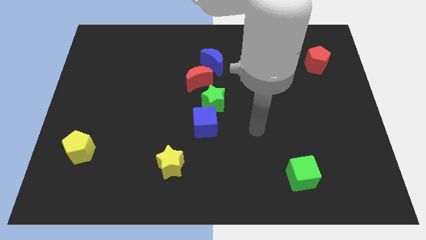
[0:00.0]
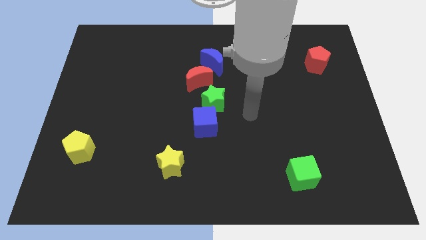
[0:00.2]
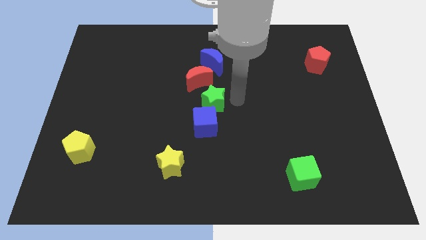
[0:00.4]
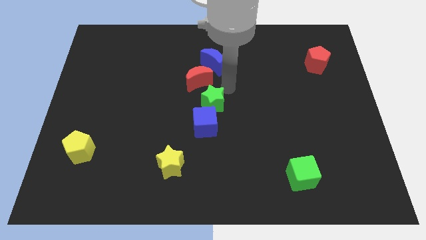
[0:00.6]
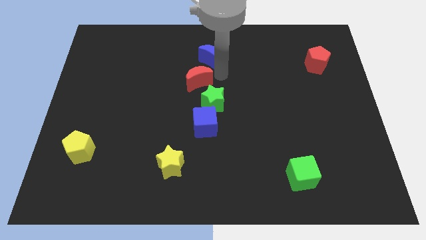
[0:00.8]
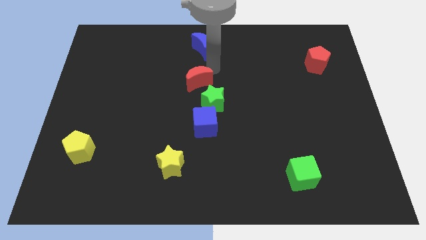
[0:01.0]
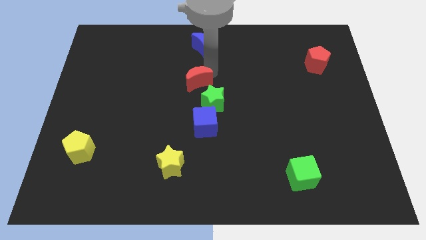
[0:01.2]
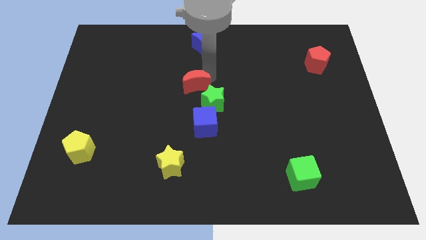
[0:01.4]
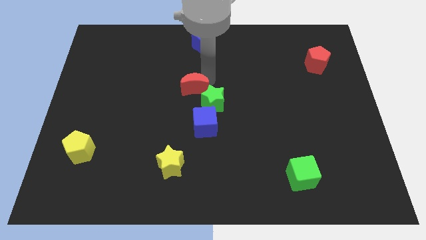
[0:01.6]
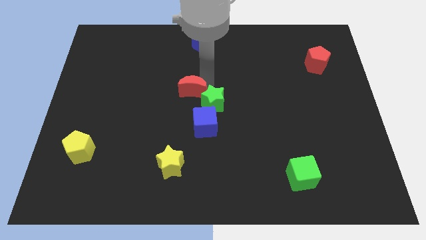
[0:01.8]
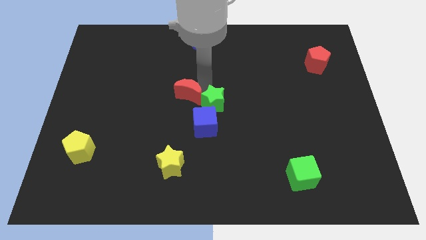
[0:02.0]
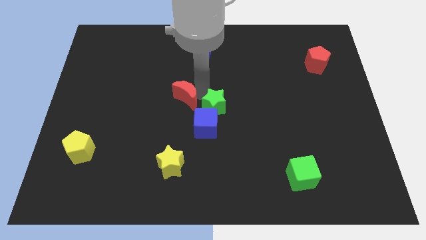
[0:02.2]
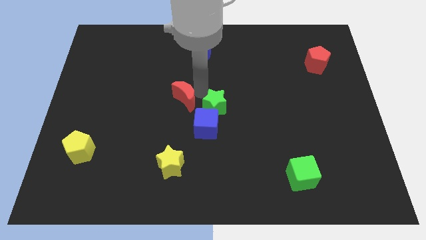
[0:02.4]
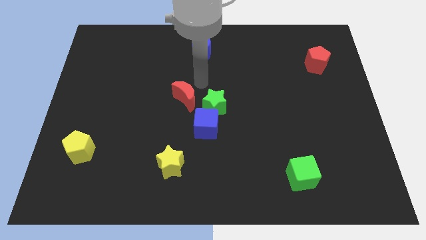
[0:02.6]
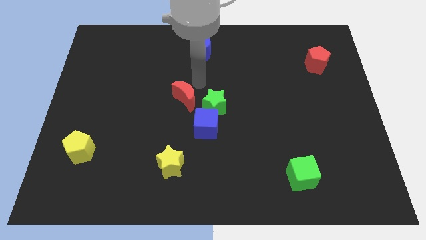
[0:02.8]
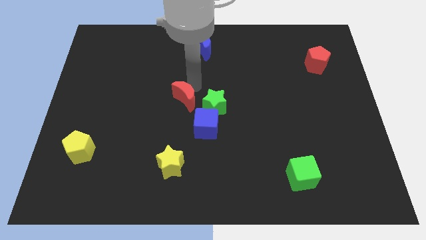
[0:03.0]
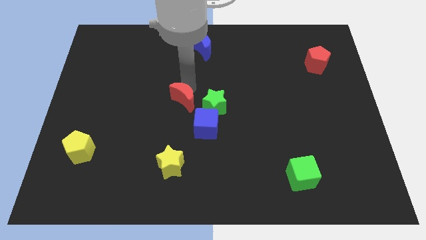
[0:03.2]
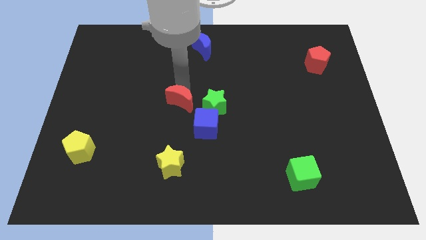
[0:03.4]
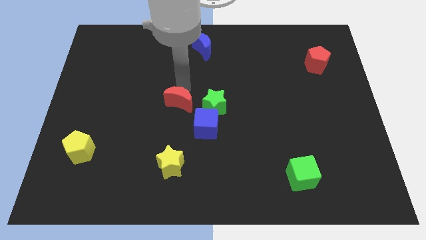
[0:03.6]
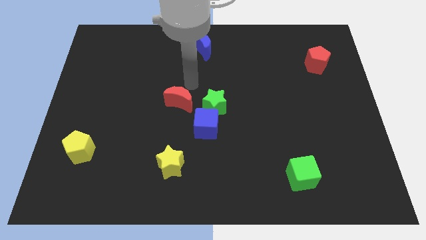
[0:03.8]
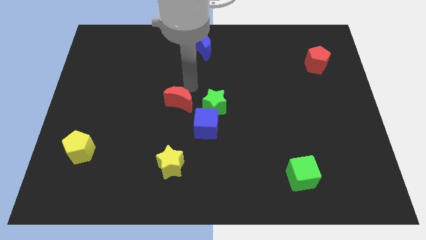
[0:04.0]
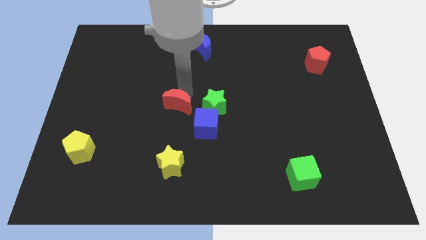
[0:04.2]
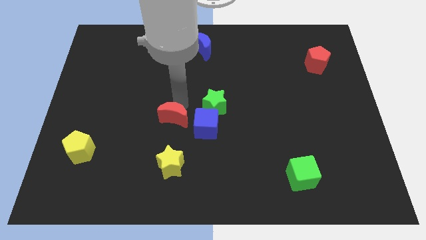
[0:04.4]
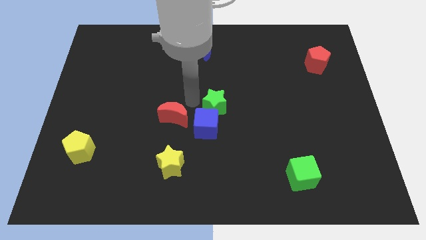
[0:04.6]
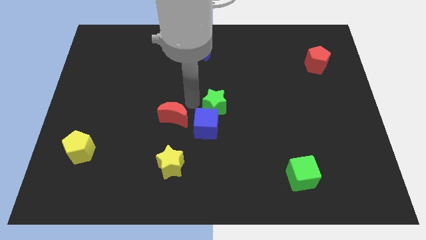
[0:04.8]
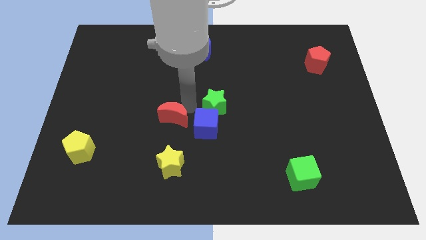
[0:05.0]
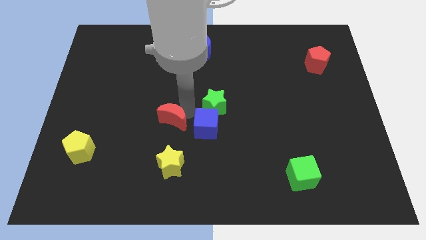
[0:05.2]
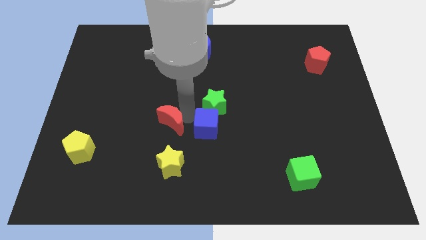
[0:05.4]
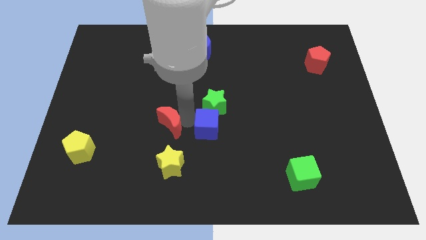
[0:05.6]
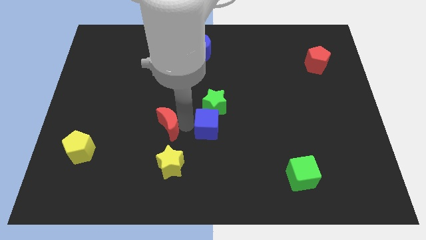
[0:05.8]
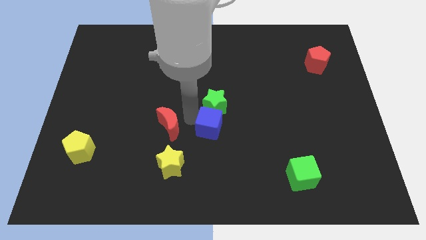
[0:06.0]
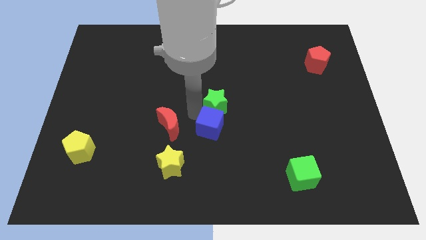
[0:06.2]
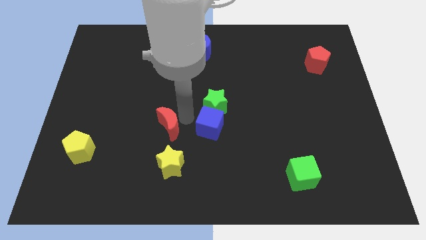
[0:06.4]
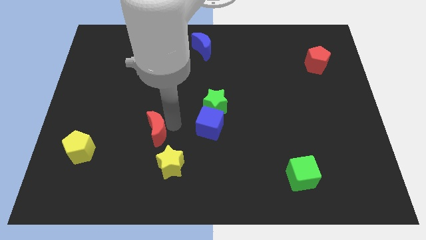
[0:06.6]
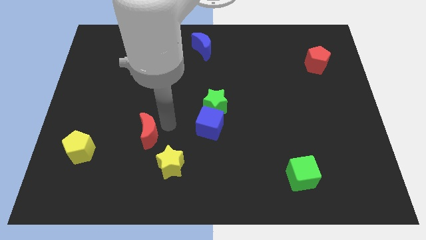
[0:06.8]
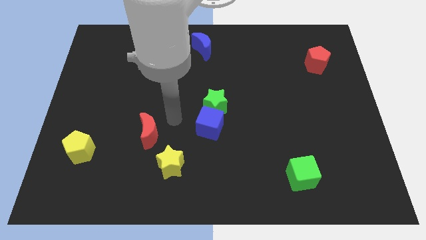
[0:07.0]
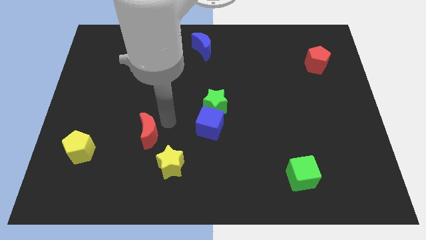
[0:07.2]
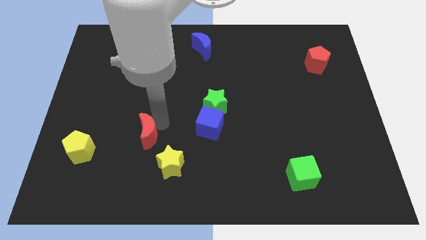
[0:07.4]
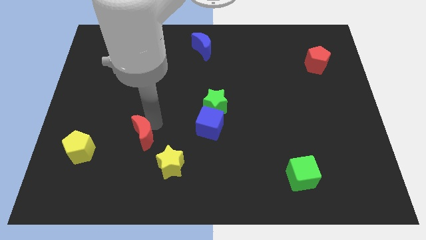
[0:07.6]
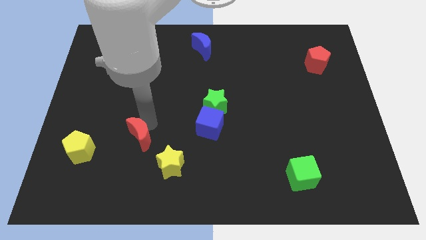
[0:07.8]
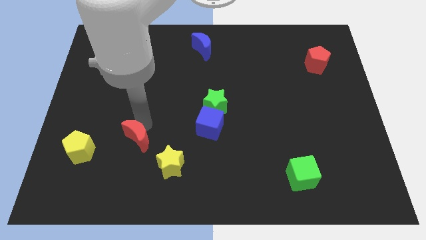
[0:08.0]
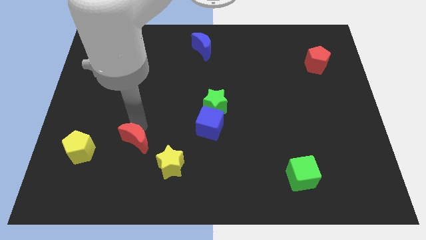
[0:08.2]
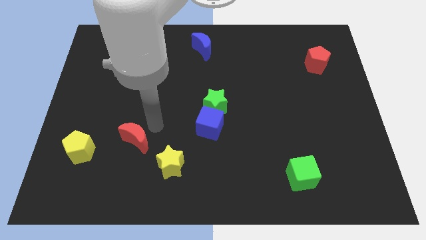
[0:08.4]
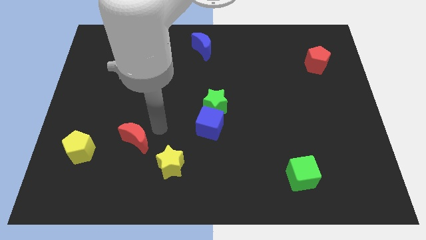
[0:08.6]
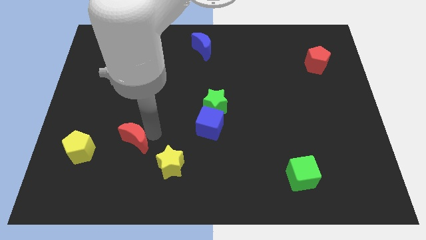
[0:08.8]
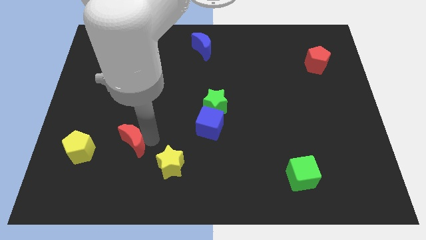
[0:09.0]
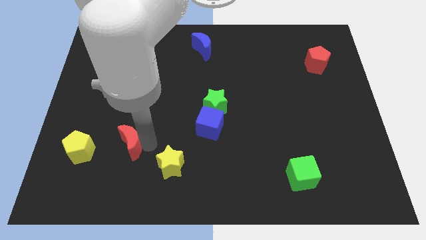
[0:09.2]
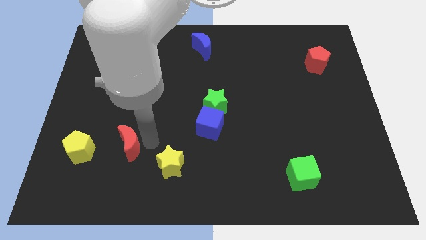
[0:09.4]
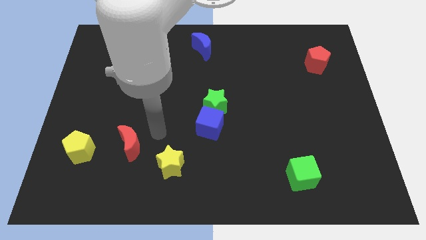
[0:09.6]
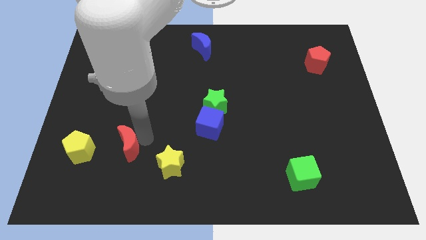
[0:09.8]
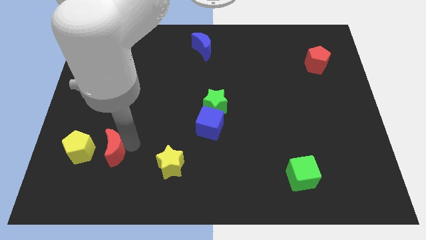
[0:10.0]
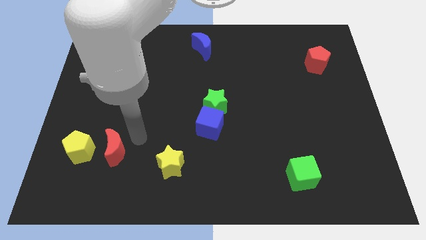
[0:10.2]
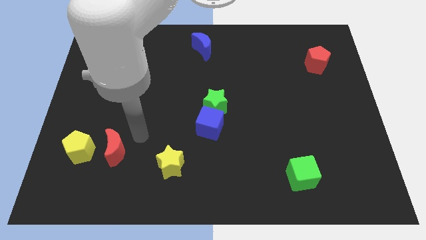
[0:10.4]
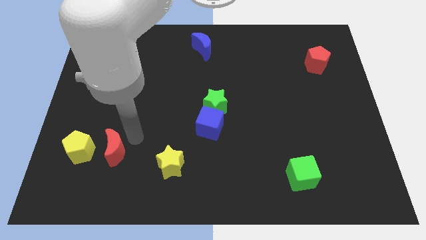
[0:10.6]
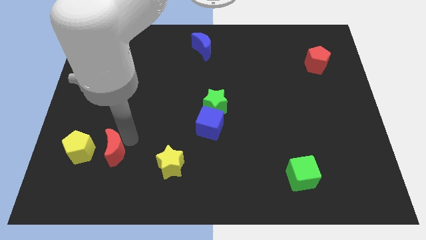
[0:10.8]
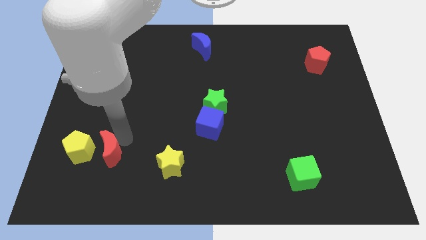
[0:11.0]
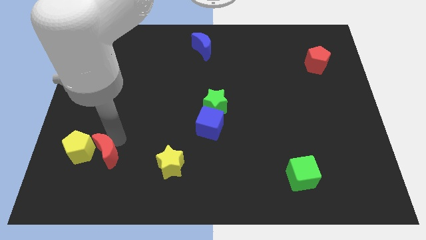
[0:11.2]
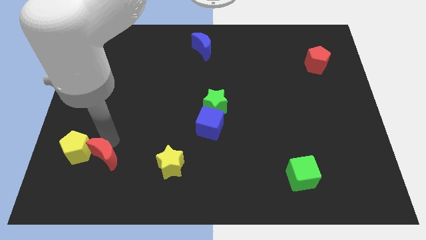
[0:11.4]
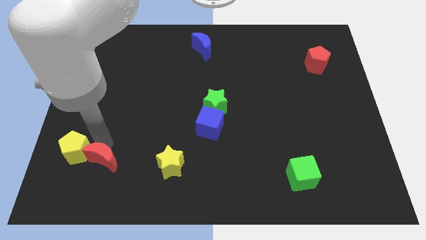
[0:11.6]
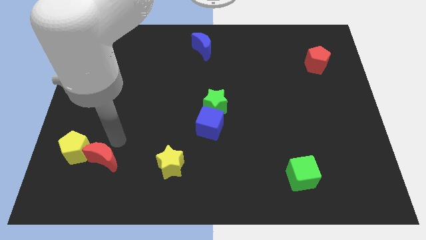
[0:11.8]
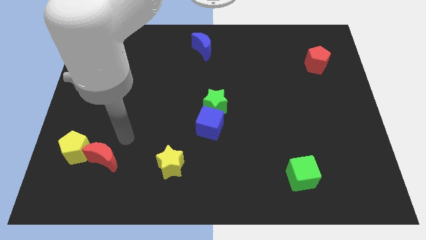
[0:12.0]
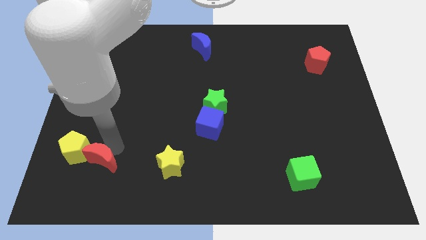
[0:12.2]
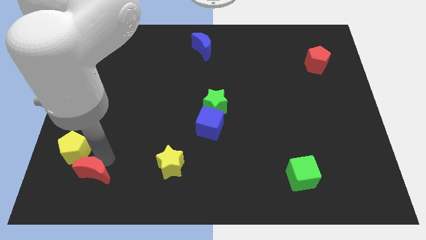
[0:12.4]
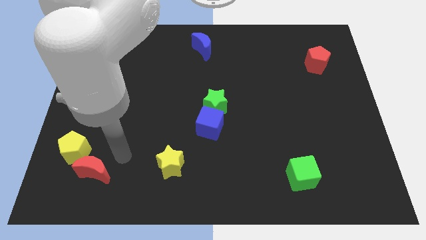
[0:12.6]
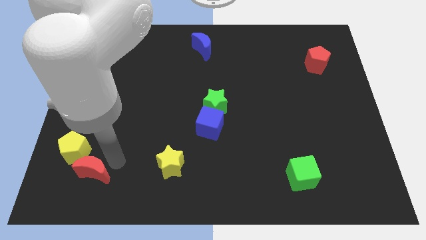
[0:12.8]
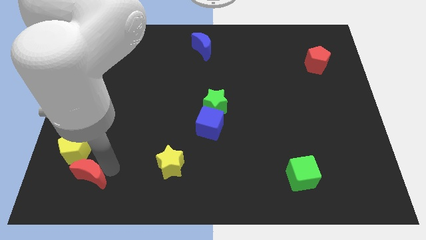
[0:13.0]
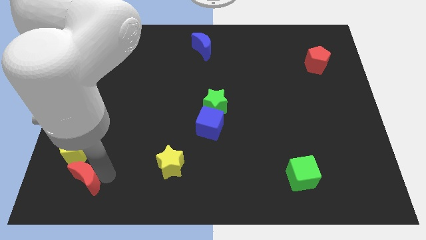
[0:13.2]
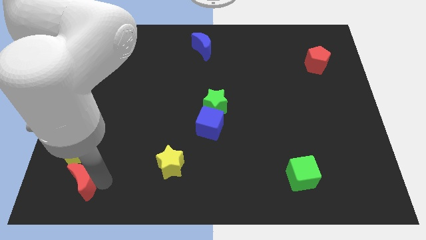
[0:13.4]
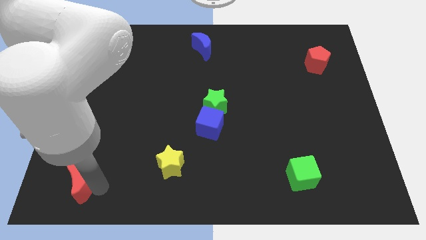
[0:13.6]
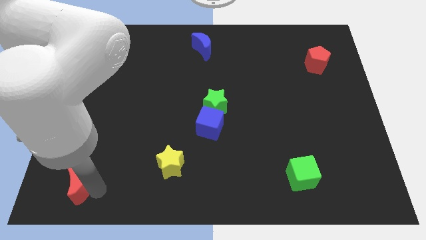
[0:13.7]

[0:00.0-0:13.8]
slide the red moon to the lower left corner

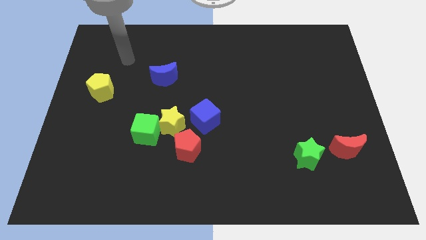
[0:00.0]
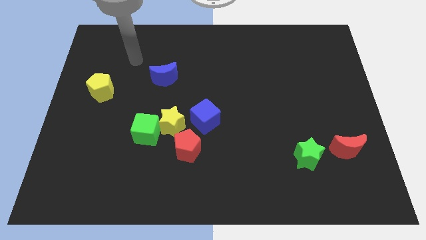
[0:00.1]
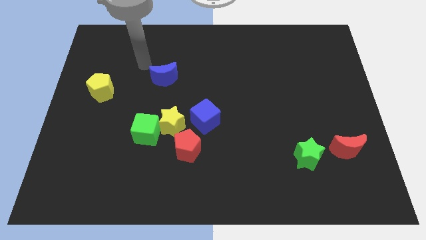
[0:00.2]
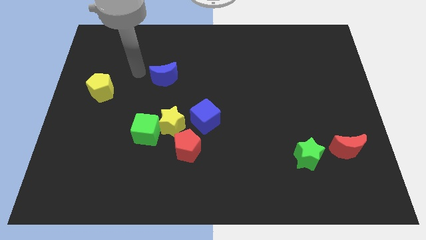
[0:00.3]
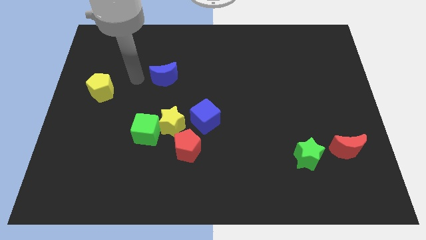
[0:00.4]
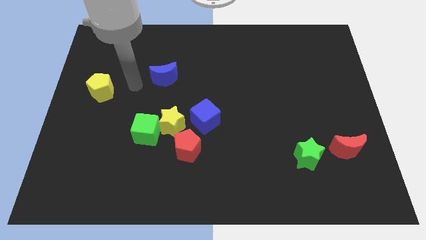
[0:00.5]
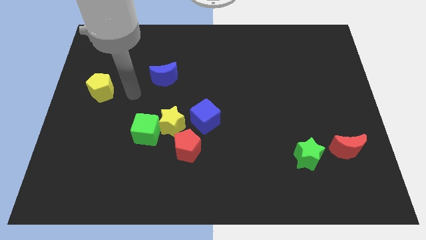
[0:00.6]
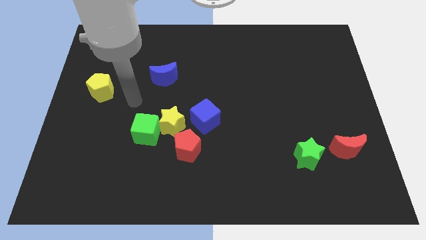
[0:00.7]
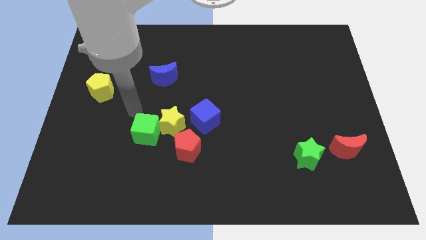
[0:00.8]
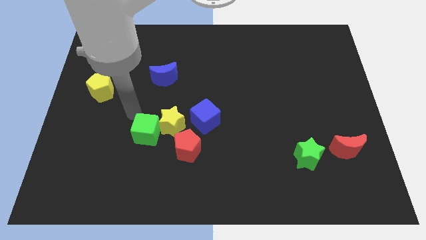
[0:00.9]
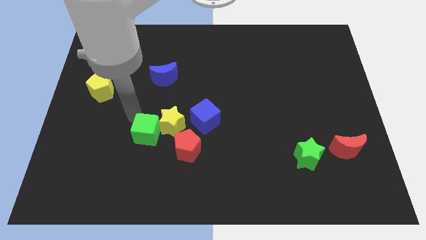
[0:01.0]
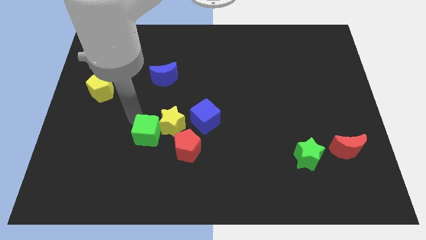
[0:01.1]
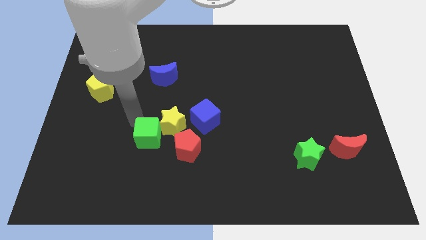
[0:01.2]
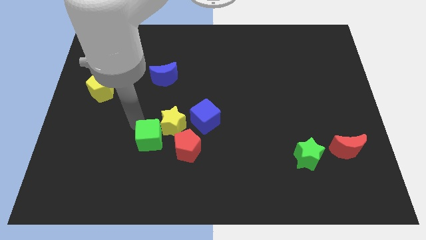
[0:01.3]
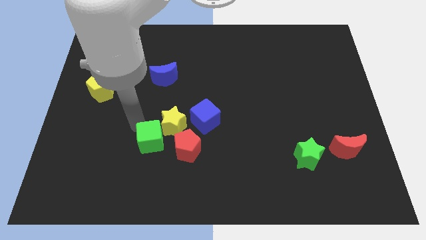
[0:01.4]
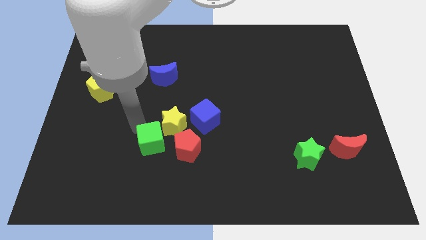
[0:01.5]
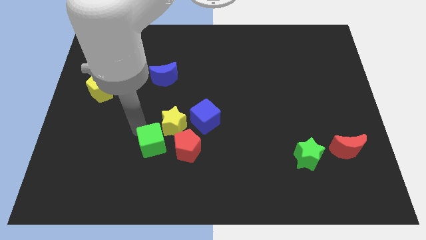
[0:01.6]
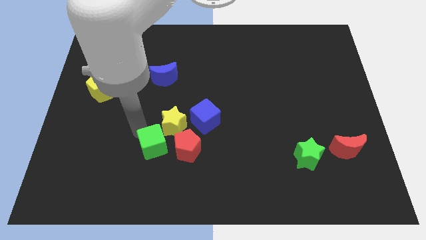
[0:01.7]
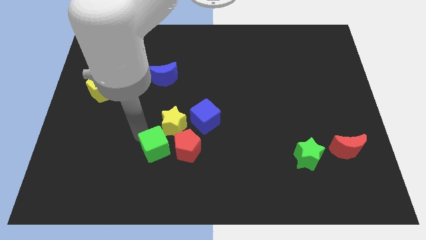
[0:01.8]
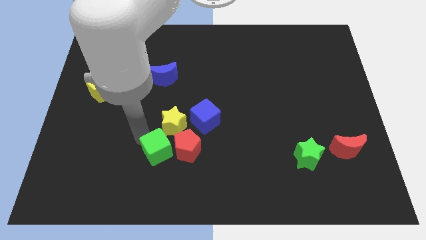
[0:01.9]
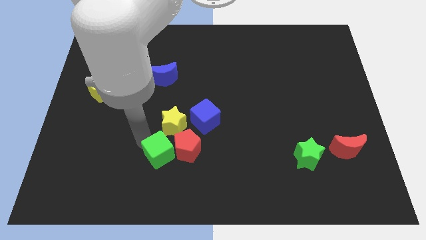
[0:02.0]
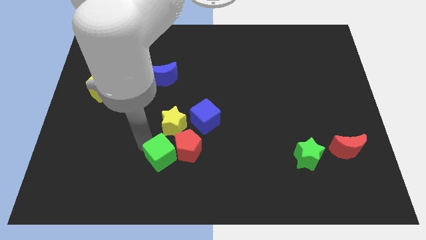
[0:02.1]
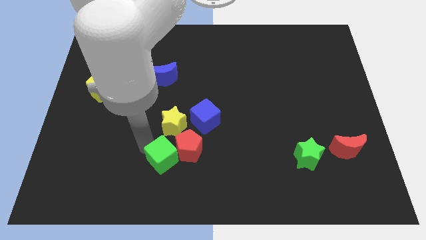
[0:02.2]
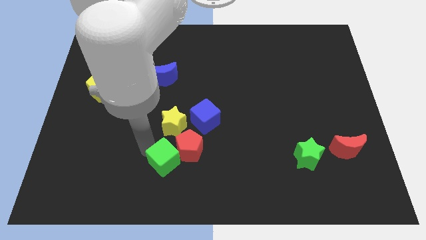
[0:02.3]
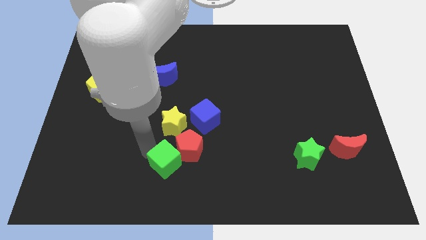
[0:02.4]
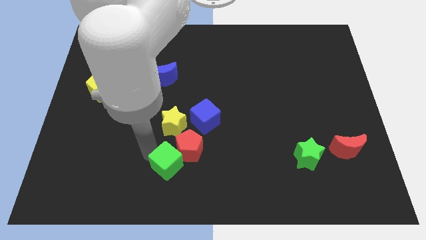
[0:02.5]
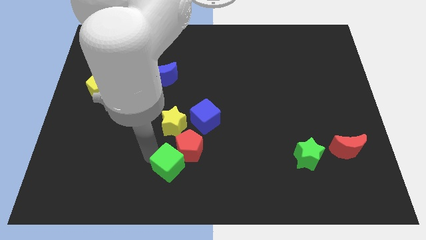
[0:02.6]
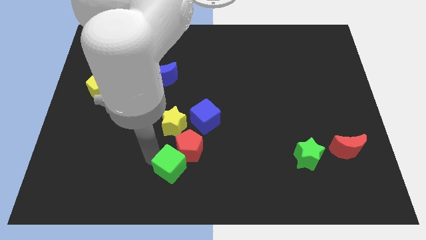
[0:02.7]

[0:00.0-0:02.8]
slide the green cube to the bottom side
